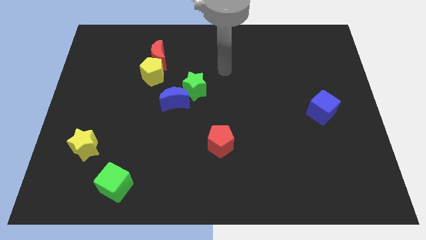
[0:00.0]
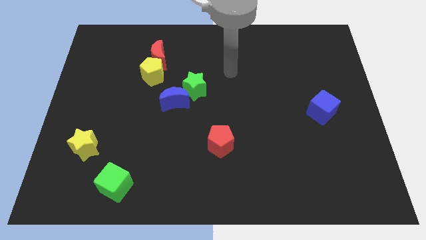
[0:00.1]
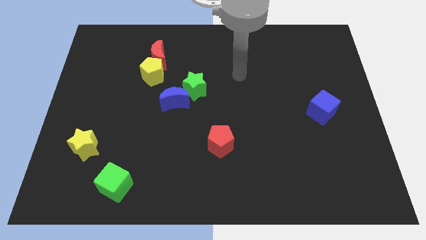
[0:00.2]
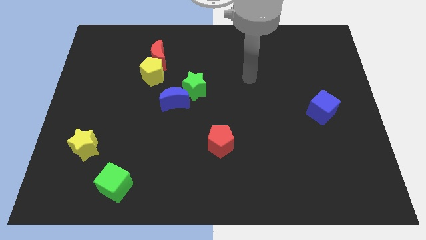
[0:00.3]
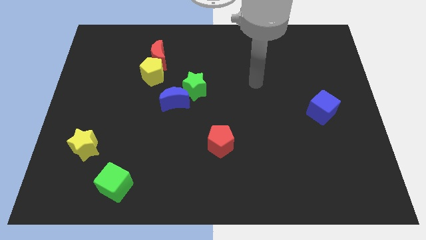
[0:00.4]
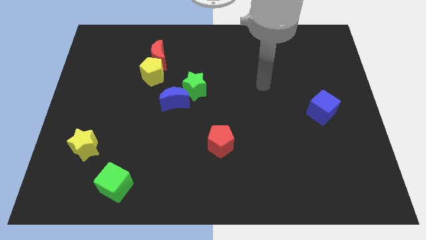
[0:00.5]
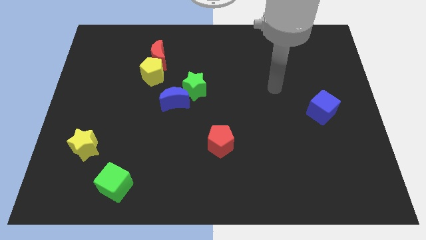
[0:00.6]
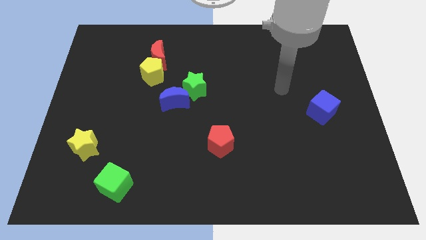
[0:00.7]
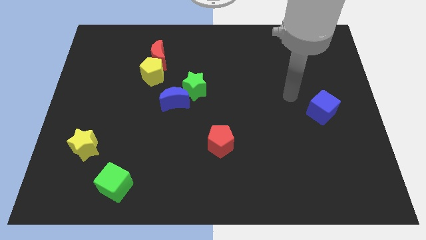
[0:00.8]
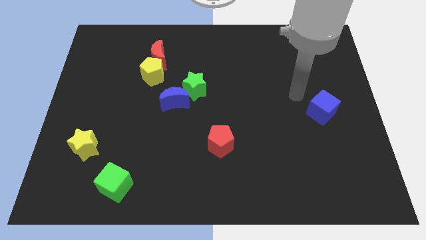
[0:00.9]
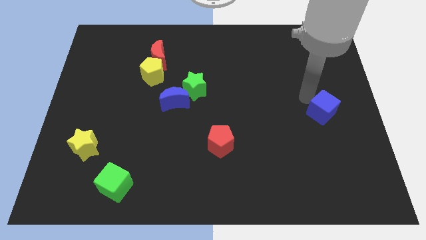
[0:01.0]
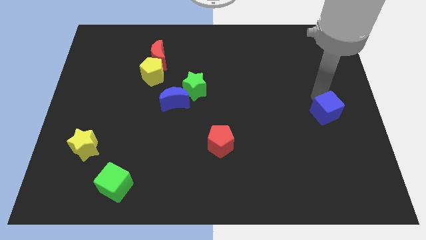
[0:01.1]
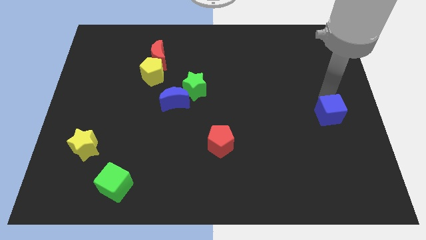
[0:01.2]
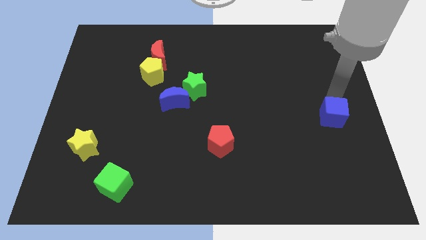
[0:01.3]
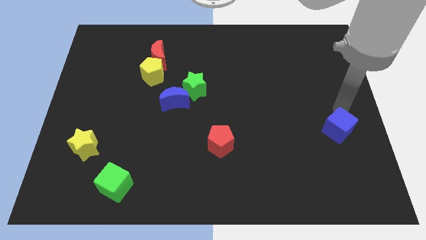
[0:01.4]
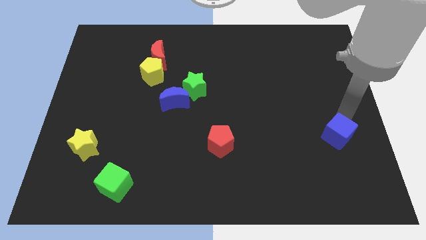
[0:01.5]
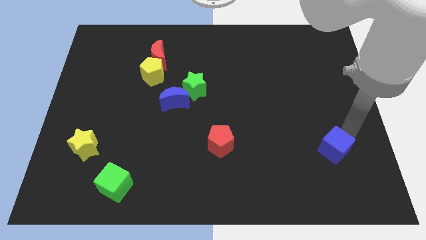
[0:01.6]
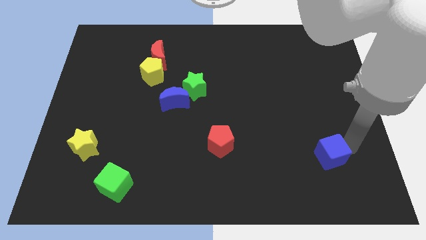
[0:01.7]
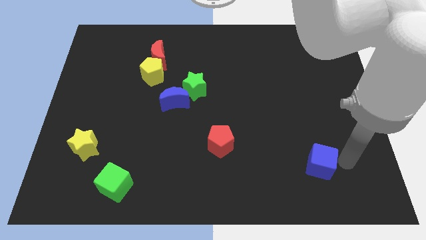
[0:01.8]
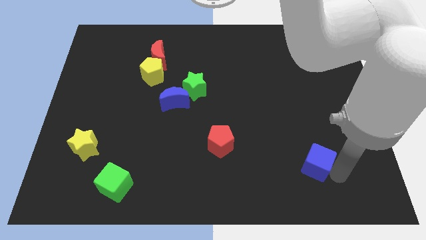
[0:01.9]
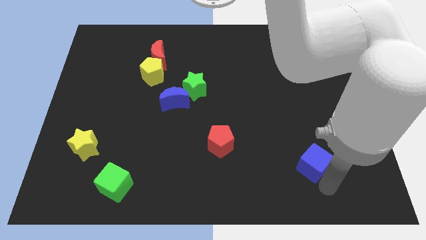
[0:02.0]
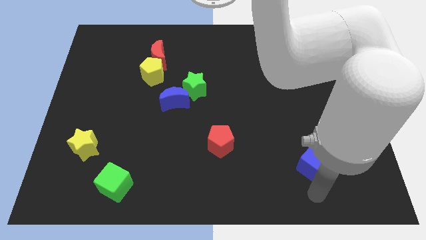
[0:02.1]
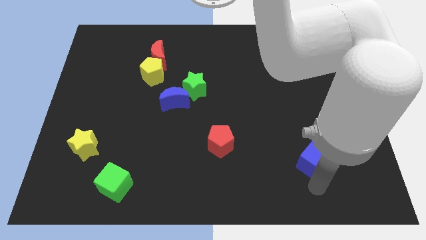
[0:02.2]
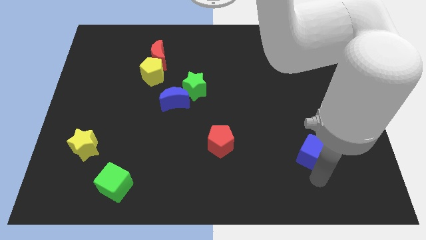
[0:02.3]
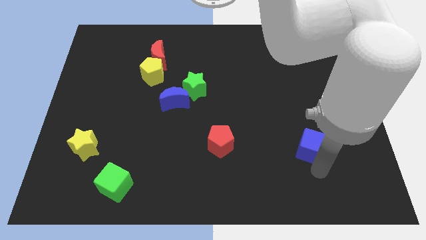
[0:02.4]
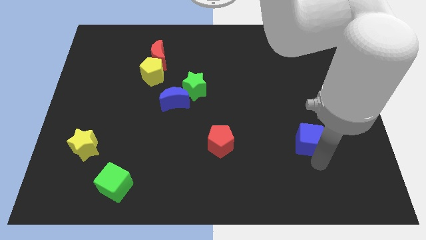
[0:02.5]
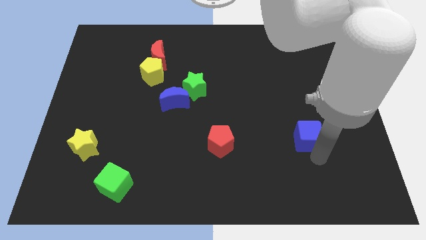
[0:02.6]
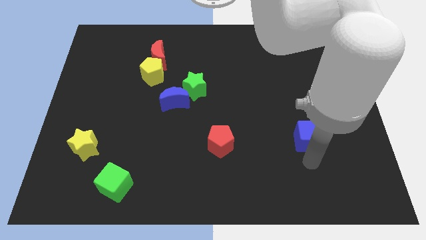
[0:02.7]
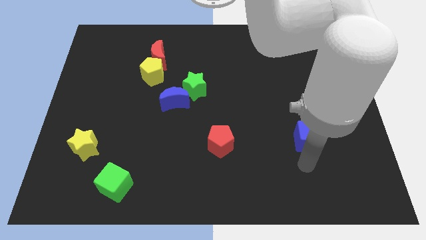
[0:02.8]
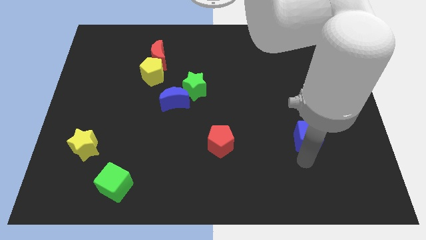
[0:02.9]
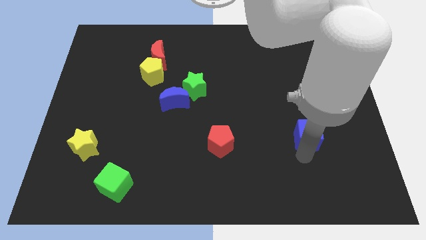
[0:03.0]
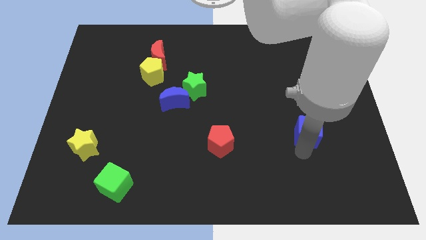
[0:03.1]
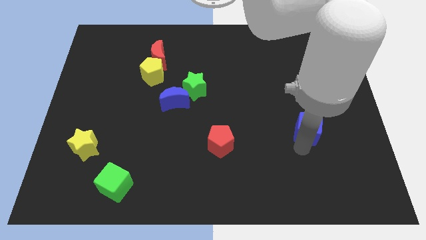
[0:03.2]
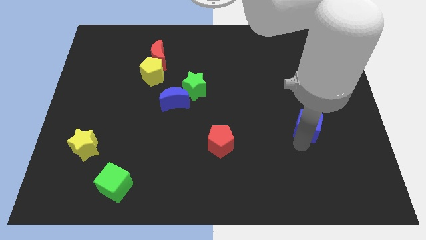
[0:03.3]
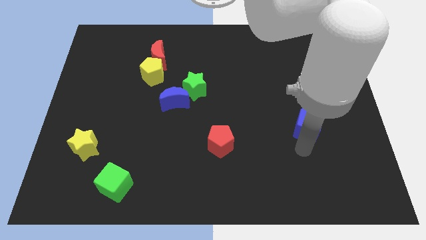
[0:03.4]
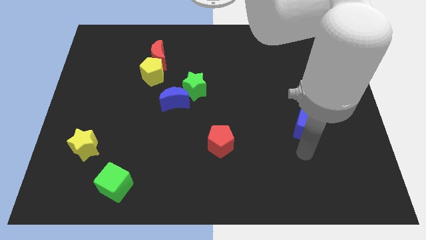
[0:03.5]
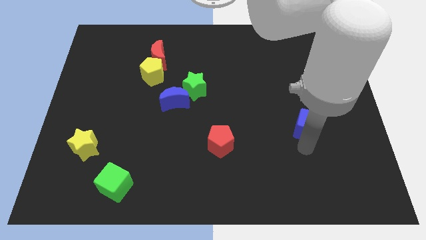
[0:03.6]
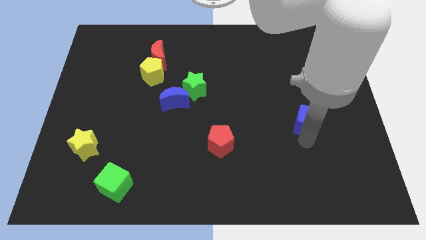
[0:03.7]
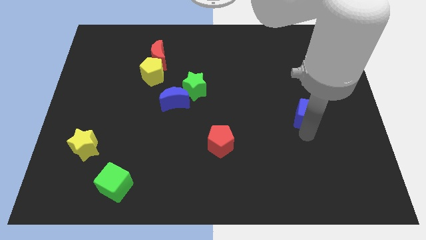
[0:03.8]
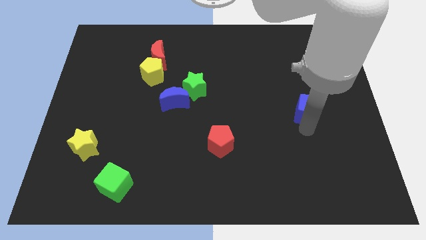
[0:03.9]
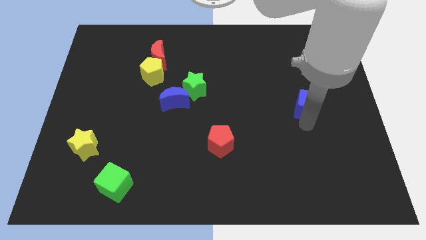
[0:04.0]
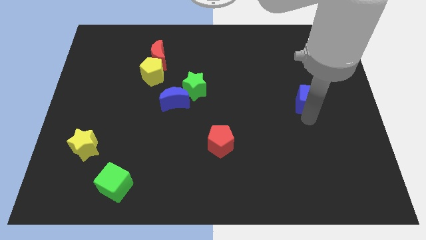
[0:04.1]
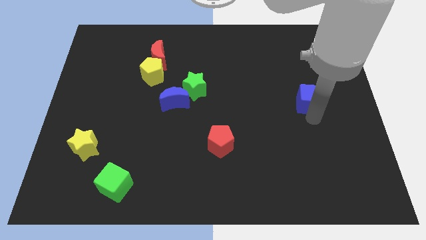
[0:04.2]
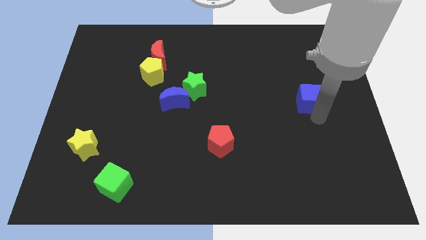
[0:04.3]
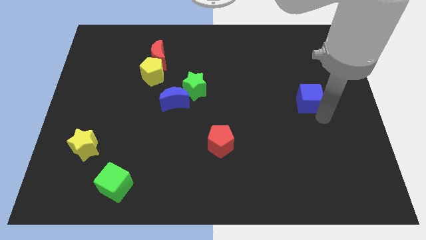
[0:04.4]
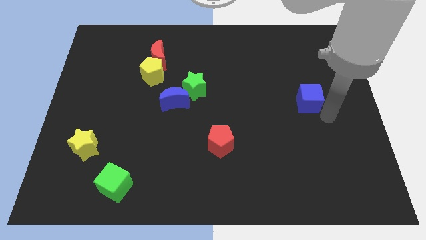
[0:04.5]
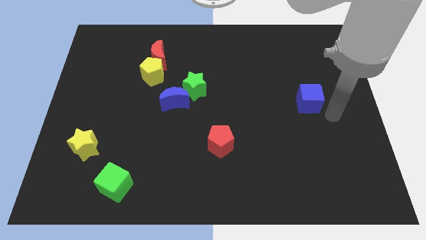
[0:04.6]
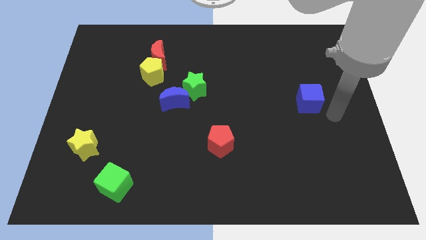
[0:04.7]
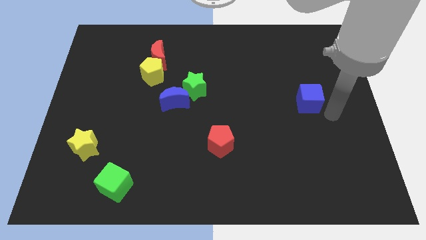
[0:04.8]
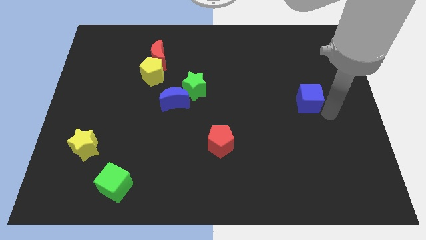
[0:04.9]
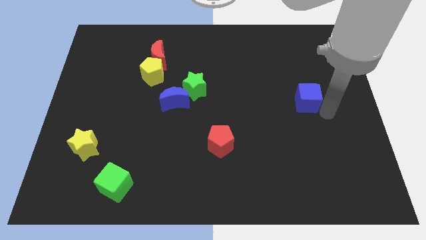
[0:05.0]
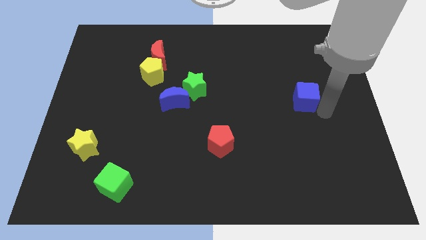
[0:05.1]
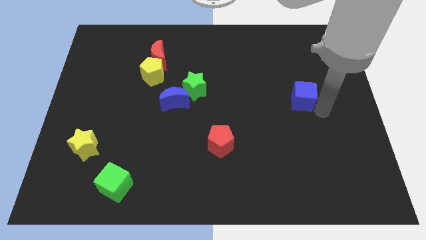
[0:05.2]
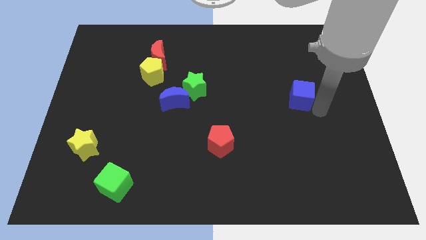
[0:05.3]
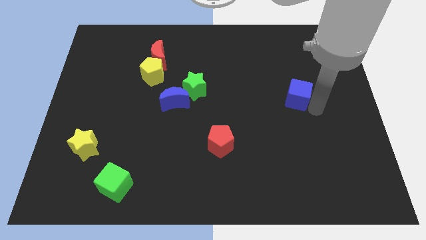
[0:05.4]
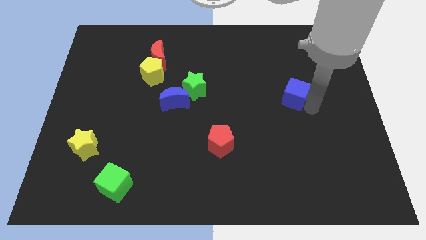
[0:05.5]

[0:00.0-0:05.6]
slide the blue cube upwards and left diagonally a little

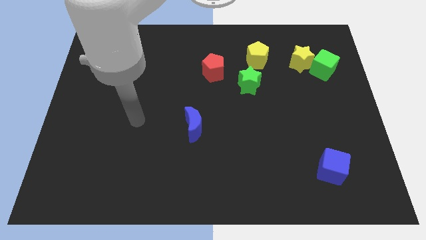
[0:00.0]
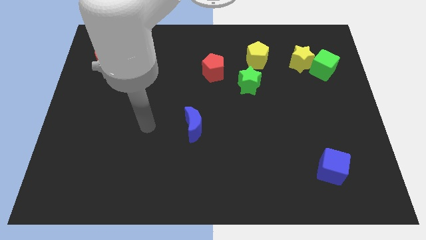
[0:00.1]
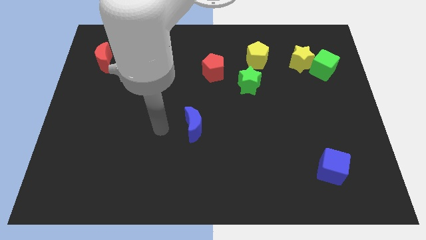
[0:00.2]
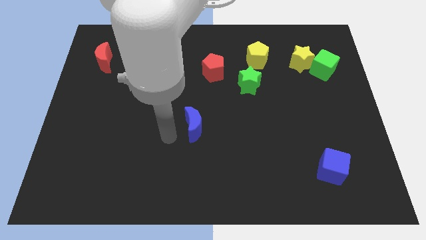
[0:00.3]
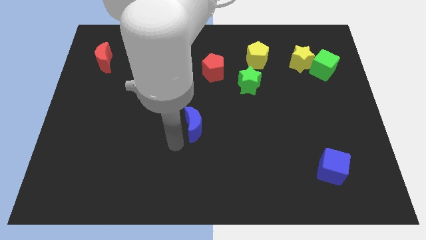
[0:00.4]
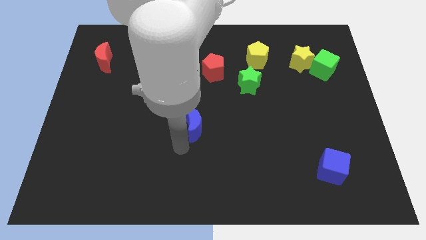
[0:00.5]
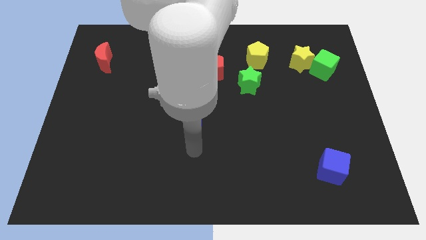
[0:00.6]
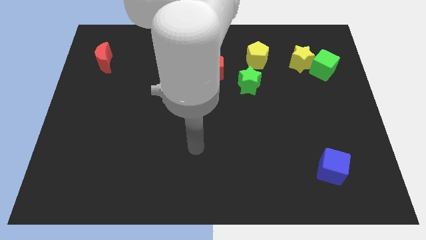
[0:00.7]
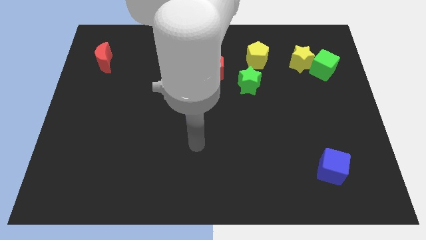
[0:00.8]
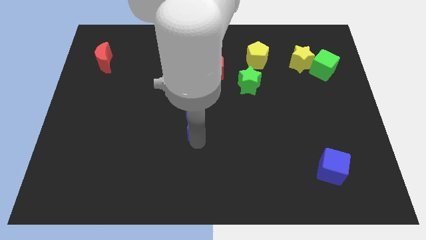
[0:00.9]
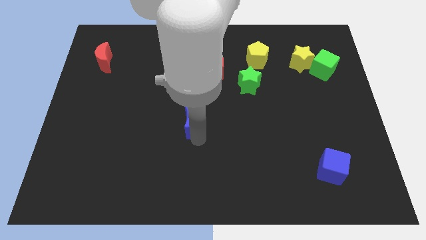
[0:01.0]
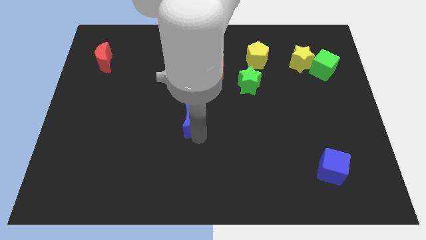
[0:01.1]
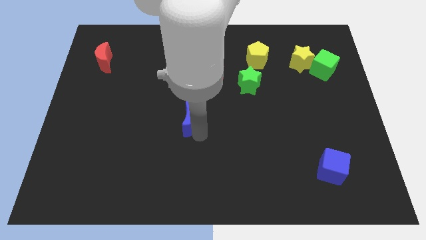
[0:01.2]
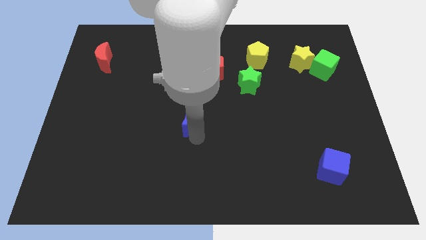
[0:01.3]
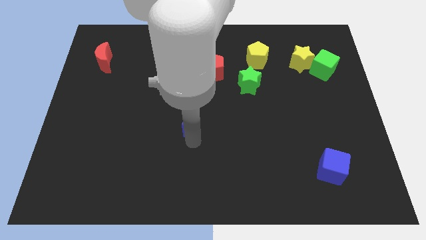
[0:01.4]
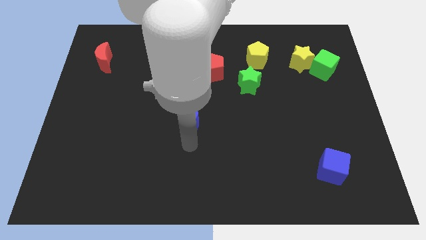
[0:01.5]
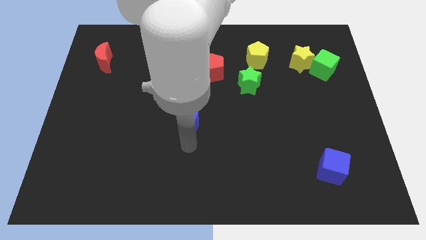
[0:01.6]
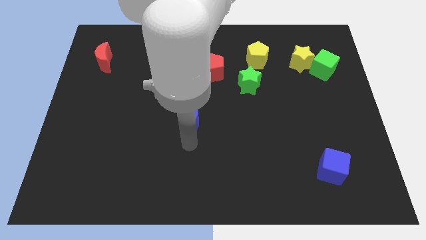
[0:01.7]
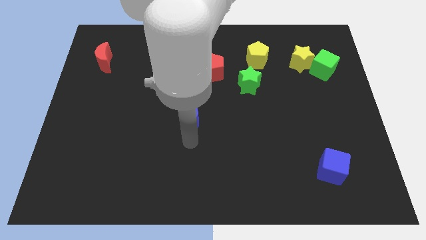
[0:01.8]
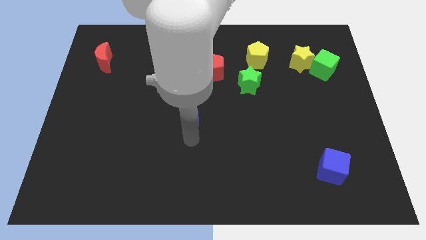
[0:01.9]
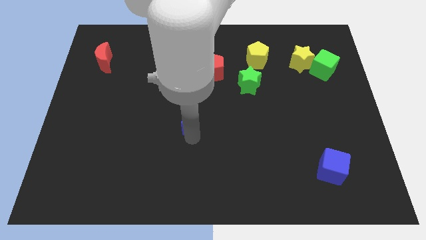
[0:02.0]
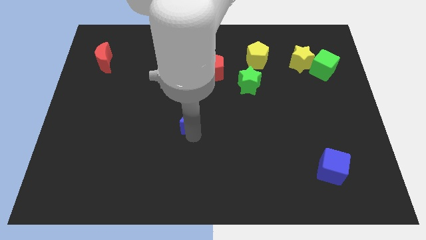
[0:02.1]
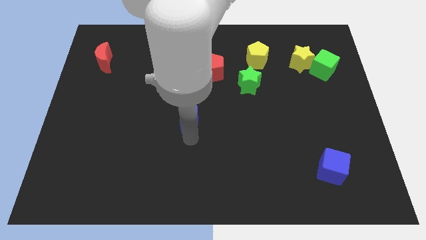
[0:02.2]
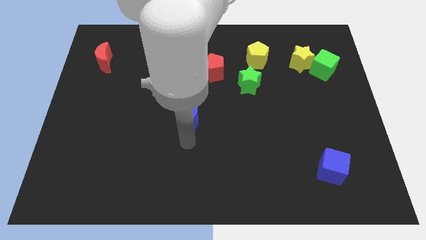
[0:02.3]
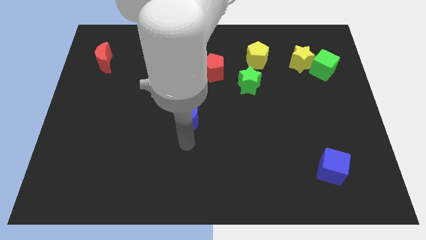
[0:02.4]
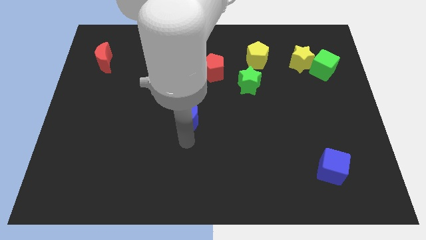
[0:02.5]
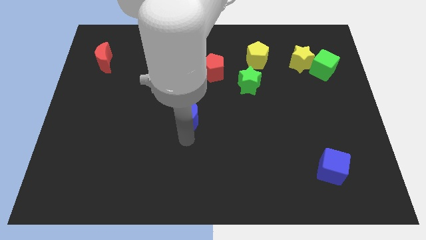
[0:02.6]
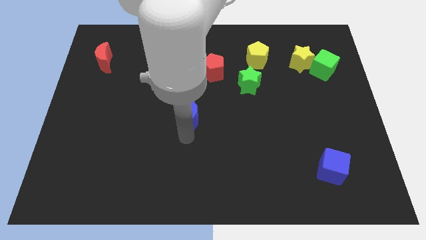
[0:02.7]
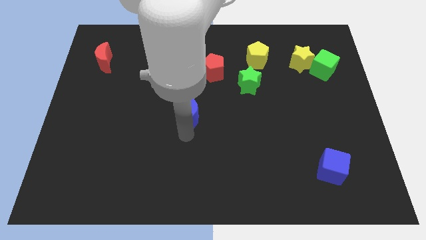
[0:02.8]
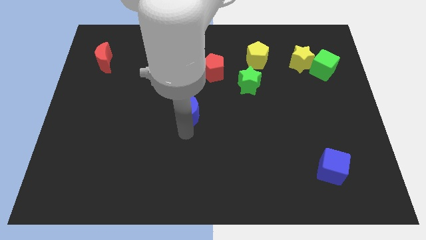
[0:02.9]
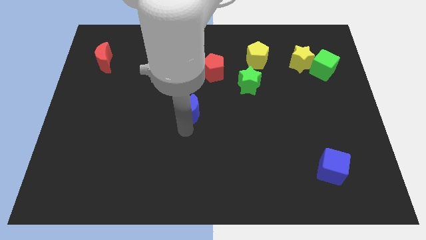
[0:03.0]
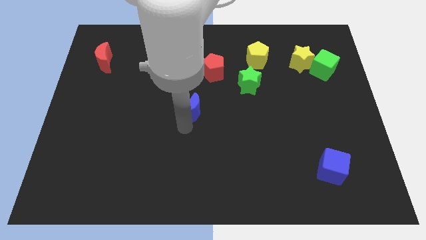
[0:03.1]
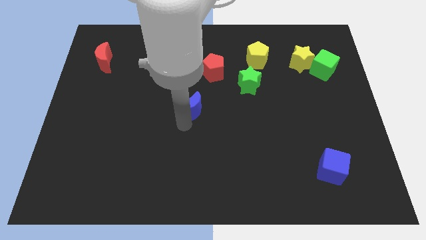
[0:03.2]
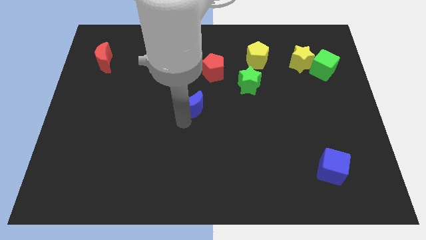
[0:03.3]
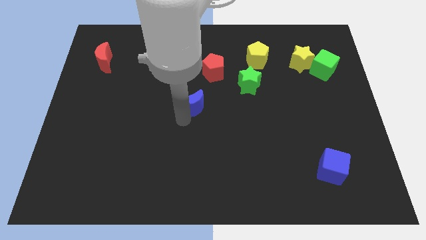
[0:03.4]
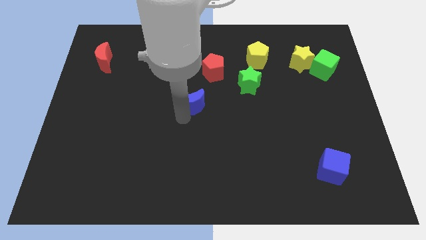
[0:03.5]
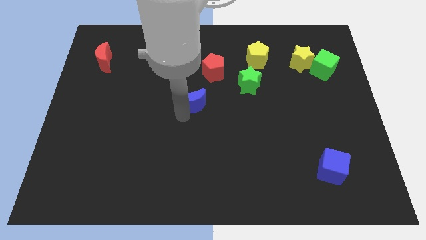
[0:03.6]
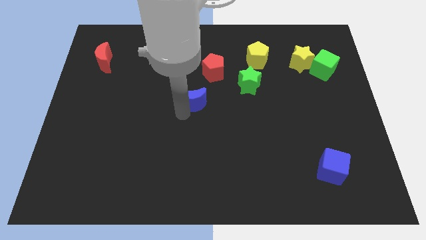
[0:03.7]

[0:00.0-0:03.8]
slightly move the blue moon upwards
